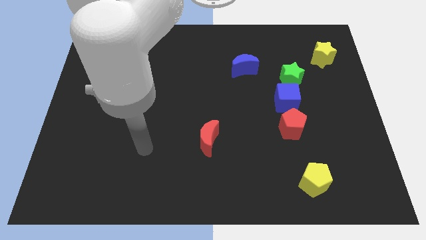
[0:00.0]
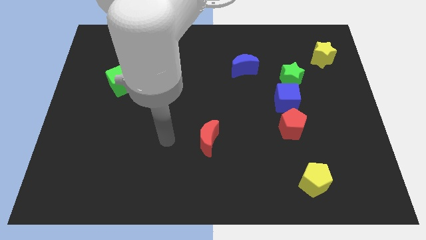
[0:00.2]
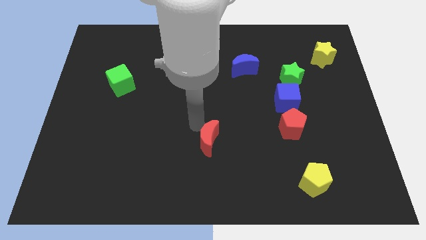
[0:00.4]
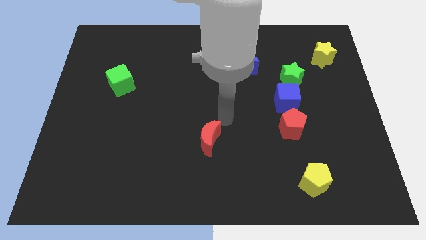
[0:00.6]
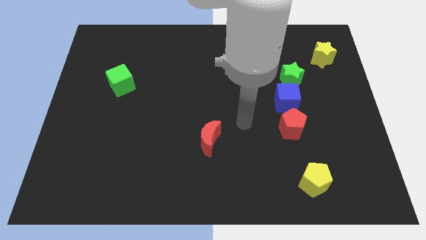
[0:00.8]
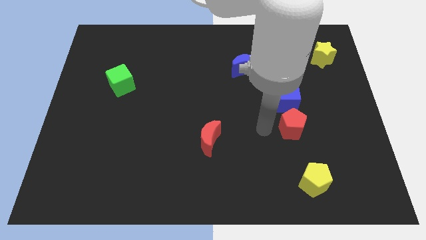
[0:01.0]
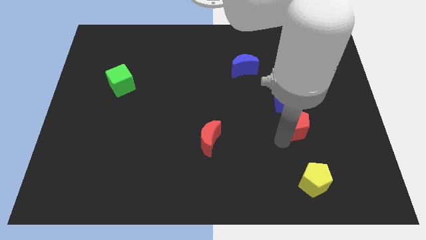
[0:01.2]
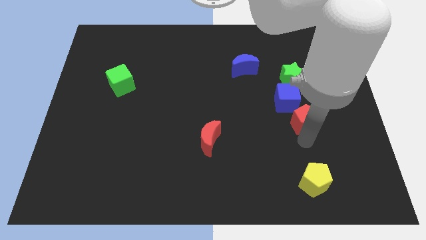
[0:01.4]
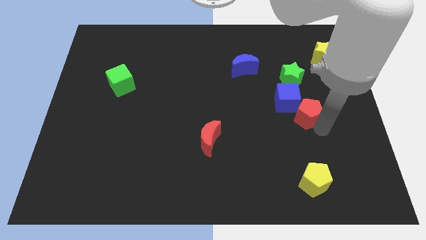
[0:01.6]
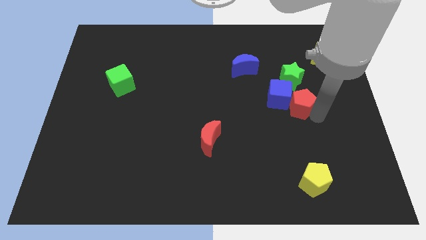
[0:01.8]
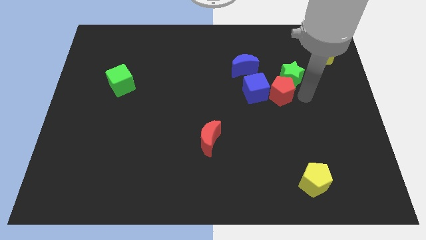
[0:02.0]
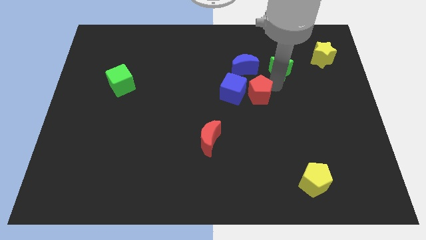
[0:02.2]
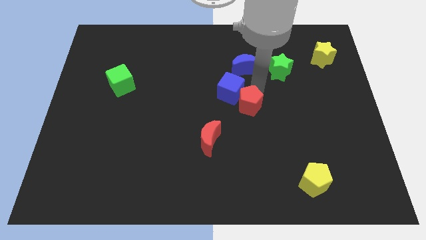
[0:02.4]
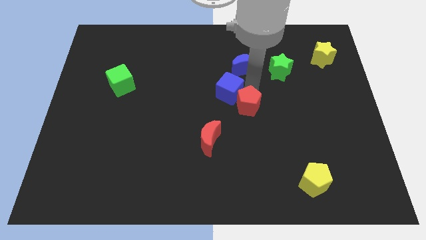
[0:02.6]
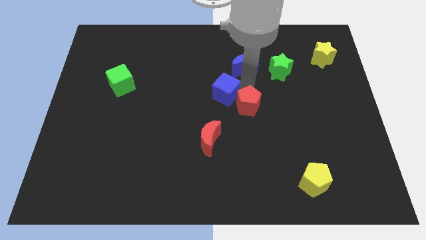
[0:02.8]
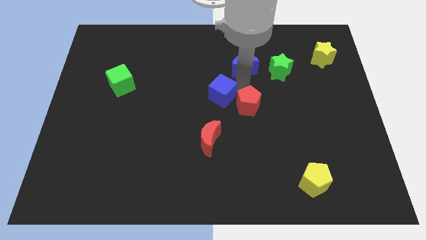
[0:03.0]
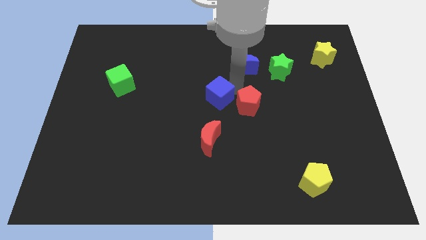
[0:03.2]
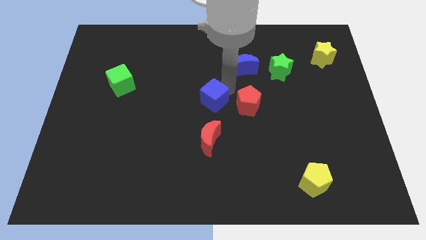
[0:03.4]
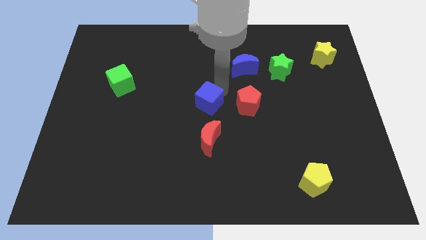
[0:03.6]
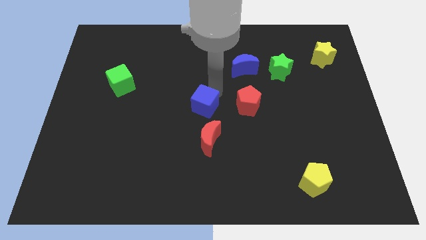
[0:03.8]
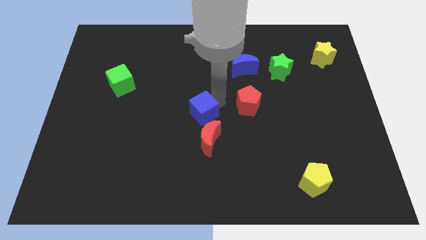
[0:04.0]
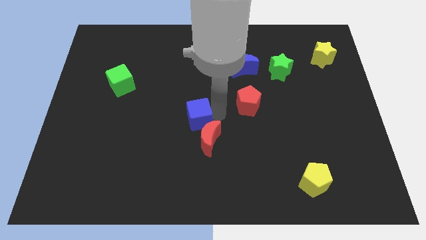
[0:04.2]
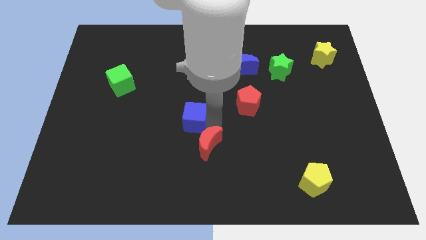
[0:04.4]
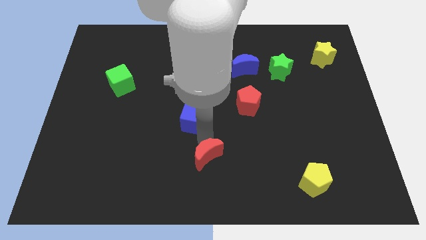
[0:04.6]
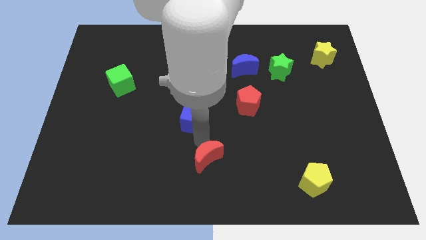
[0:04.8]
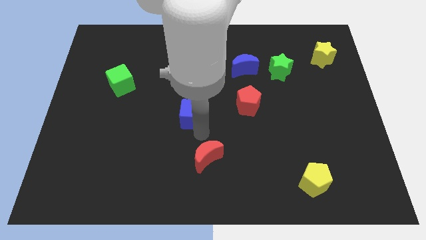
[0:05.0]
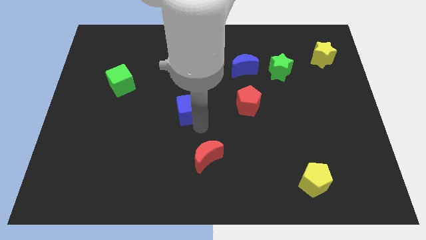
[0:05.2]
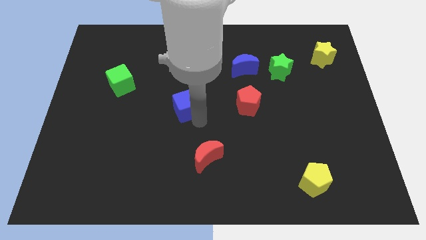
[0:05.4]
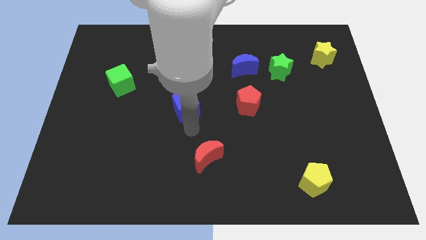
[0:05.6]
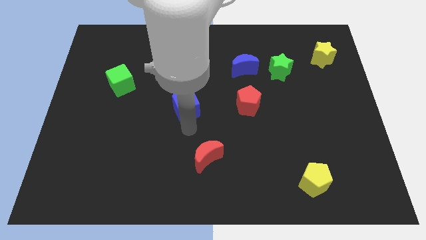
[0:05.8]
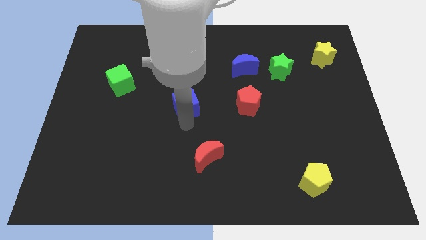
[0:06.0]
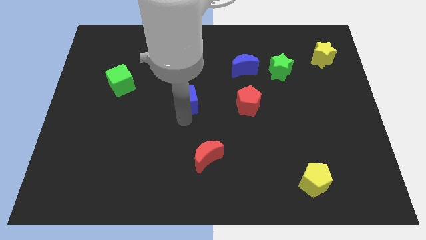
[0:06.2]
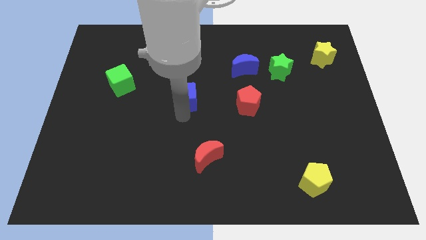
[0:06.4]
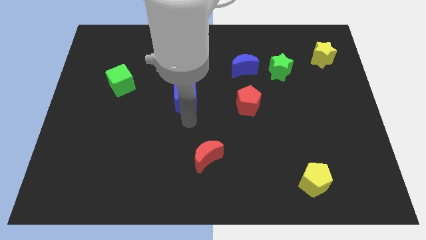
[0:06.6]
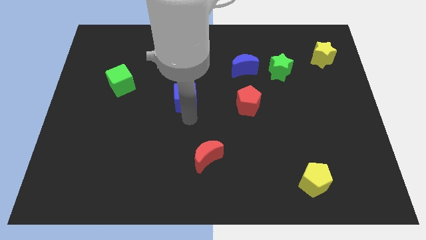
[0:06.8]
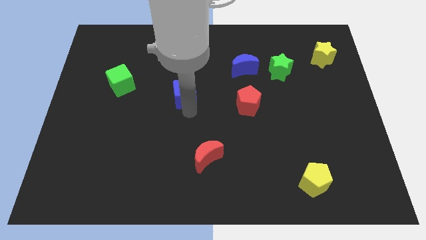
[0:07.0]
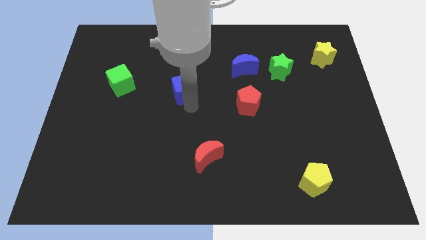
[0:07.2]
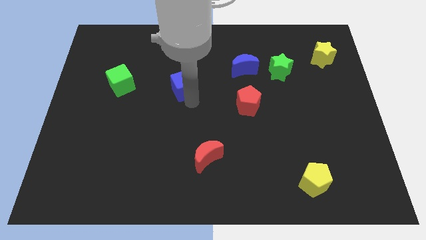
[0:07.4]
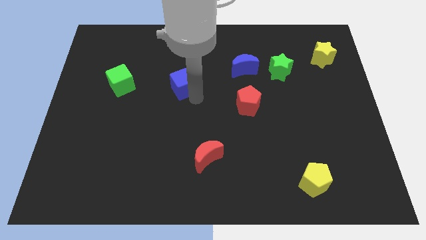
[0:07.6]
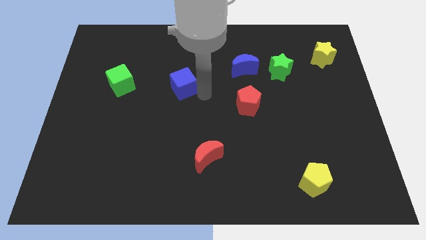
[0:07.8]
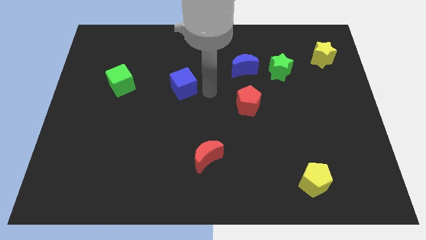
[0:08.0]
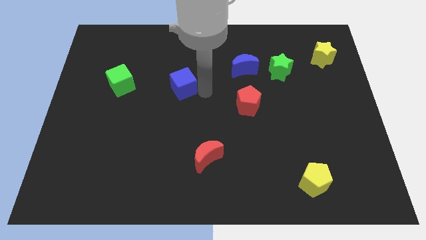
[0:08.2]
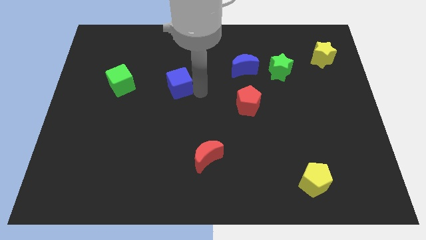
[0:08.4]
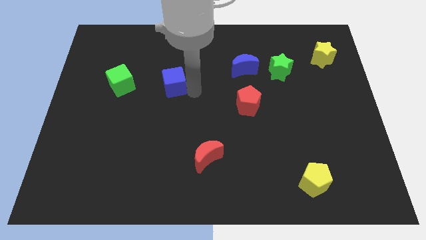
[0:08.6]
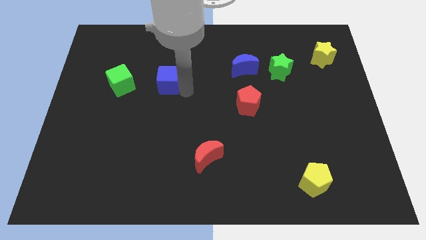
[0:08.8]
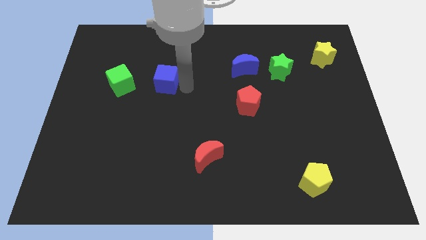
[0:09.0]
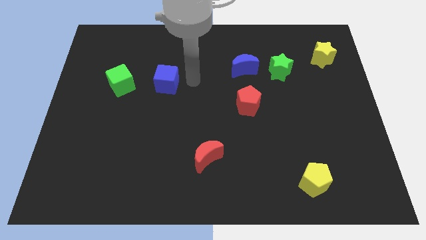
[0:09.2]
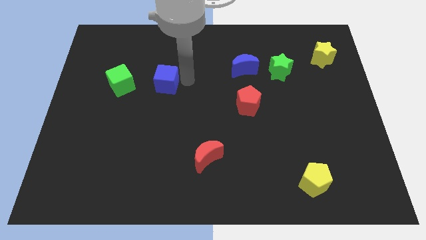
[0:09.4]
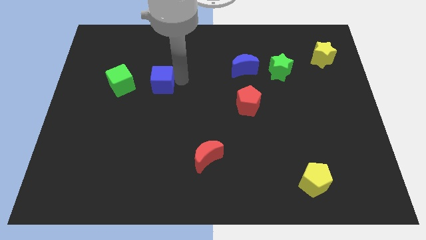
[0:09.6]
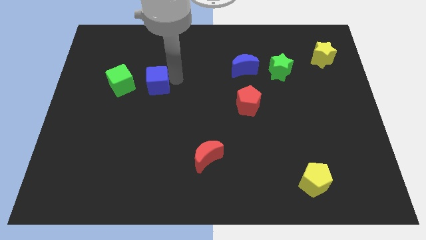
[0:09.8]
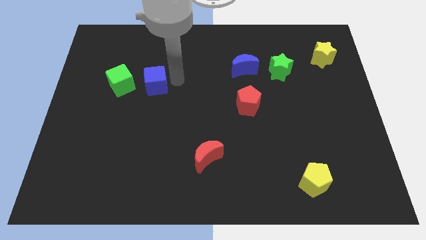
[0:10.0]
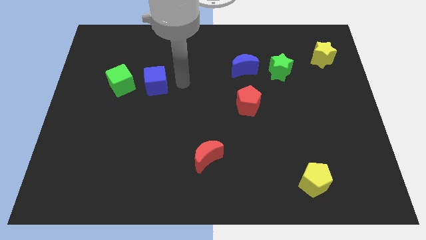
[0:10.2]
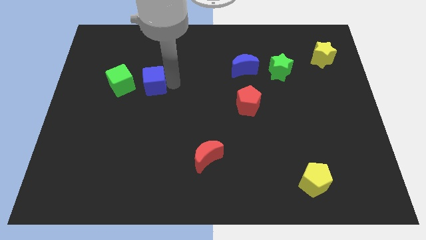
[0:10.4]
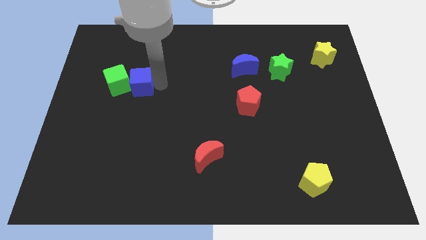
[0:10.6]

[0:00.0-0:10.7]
push the blue cube towards the green cube

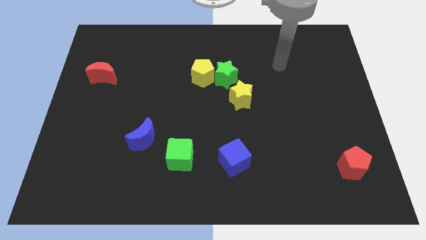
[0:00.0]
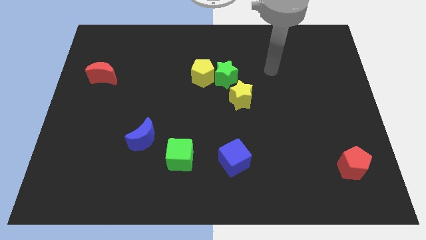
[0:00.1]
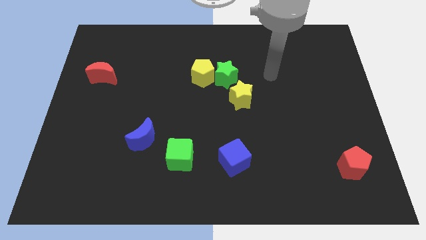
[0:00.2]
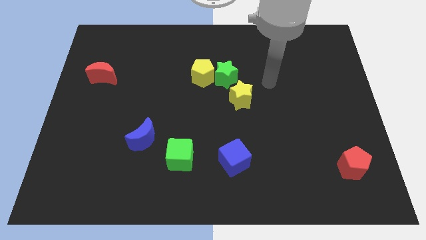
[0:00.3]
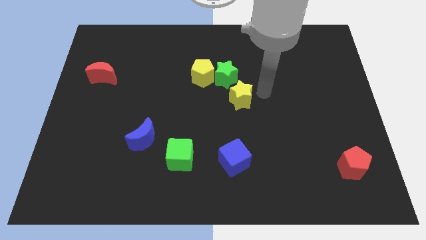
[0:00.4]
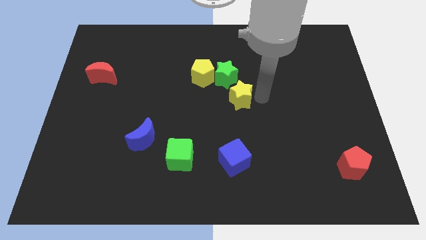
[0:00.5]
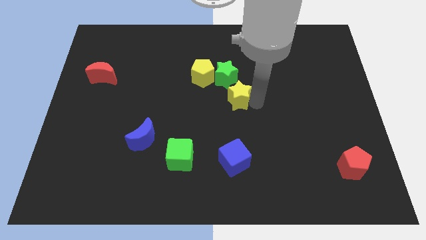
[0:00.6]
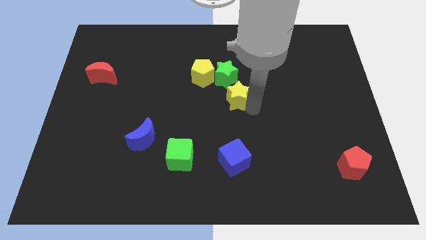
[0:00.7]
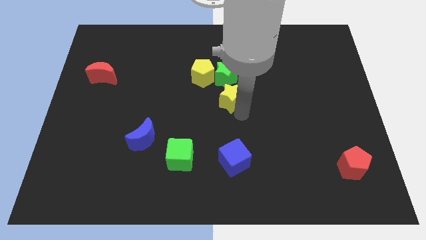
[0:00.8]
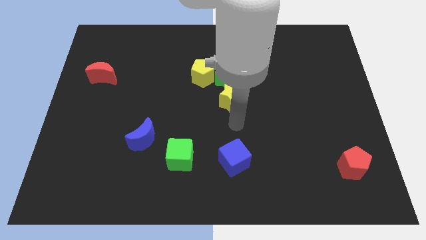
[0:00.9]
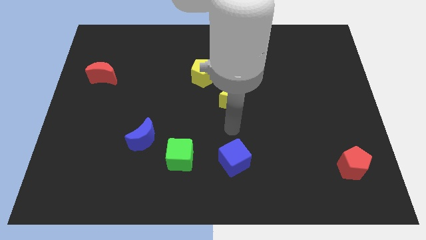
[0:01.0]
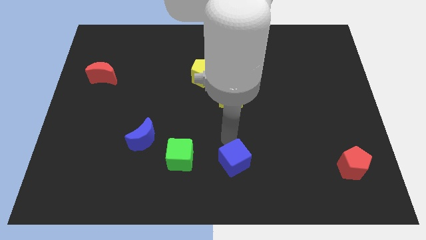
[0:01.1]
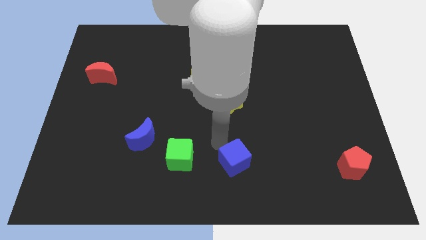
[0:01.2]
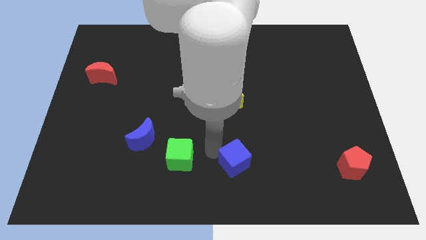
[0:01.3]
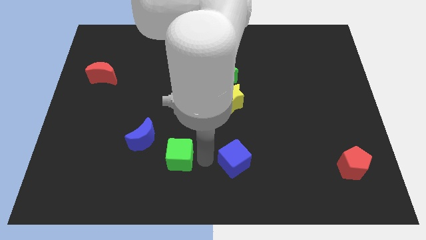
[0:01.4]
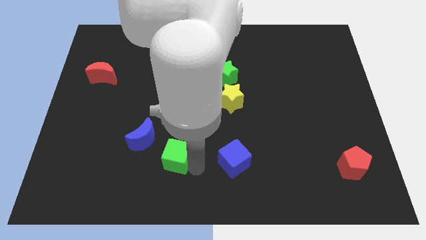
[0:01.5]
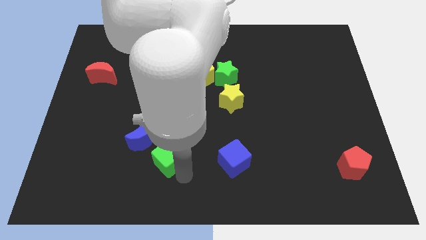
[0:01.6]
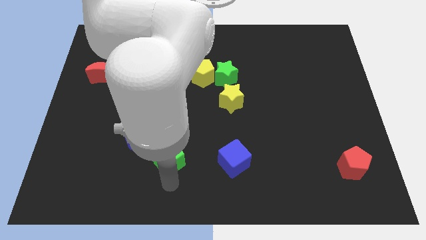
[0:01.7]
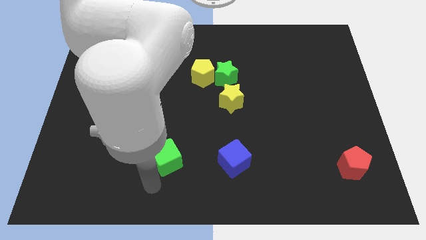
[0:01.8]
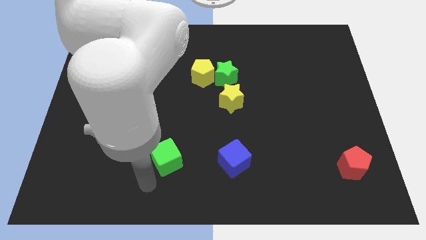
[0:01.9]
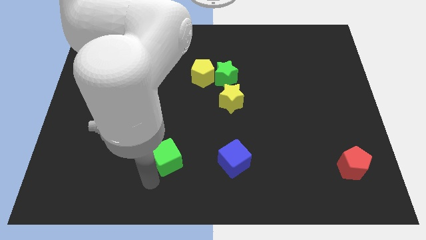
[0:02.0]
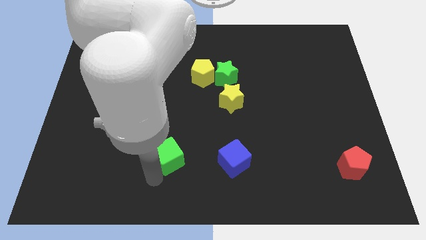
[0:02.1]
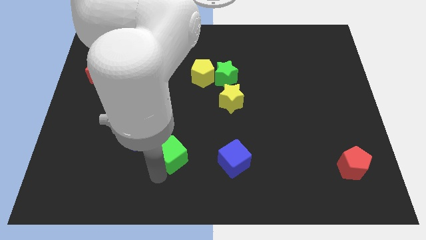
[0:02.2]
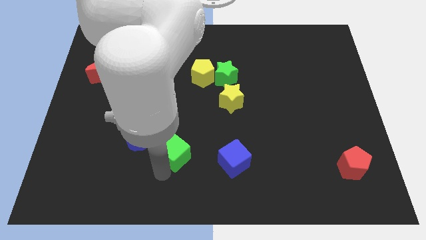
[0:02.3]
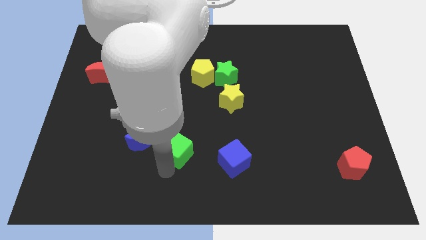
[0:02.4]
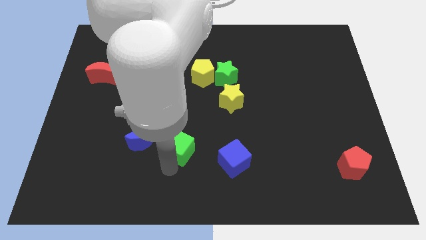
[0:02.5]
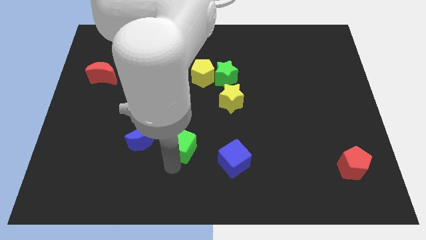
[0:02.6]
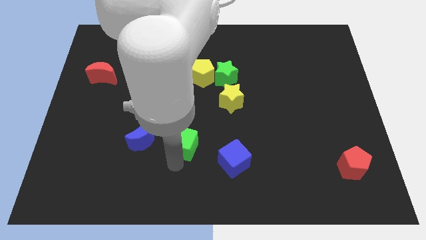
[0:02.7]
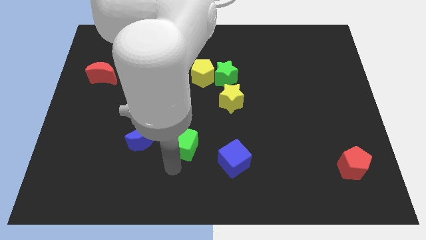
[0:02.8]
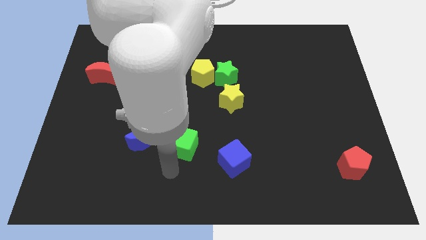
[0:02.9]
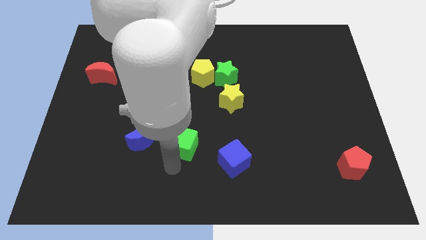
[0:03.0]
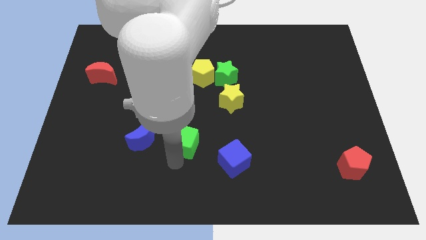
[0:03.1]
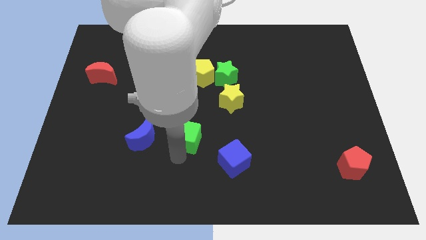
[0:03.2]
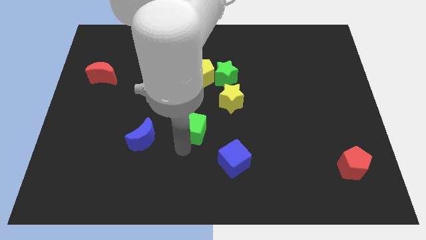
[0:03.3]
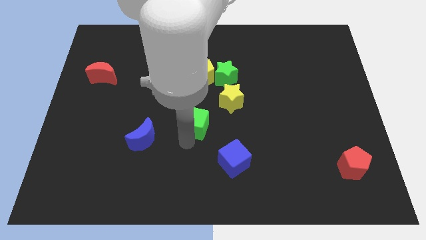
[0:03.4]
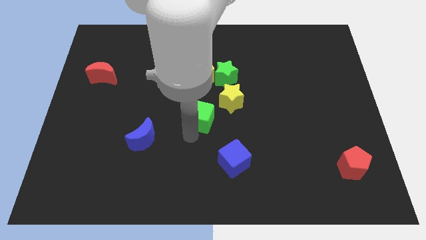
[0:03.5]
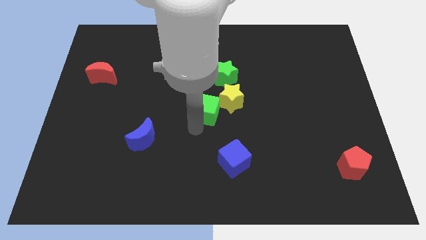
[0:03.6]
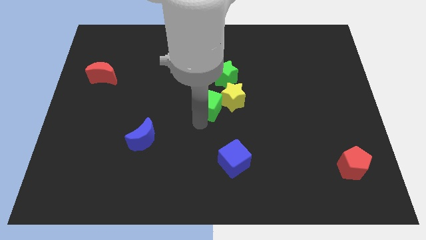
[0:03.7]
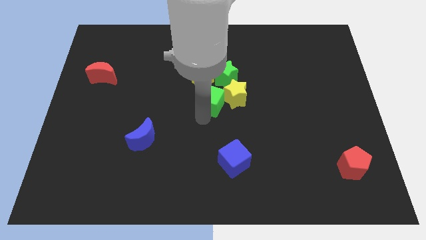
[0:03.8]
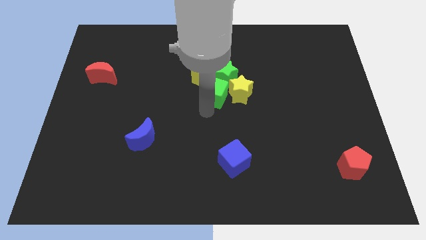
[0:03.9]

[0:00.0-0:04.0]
slide the green cube to the green star
